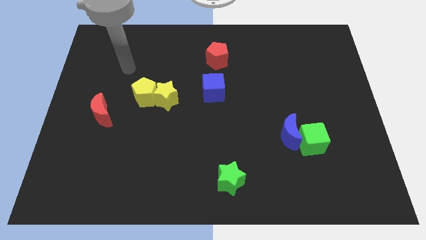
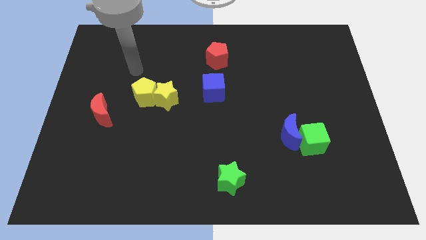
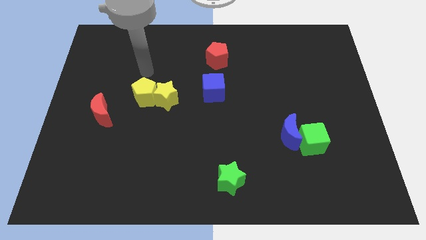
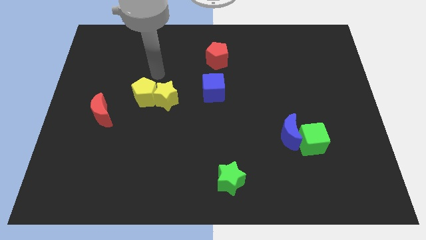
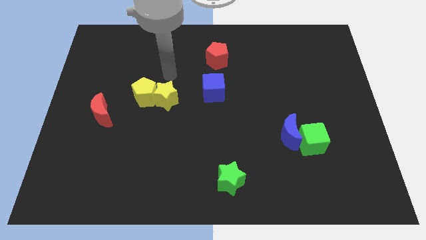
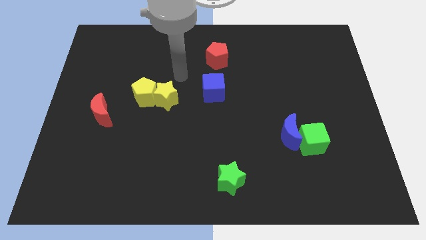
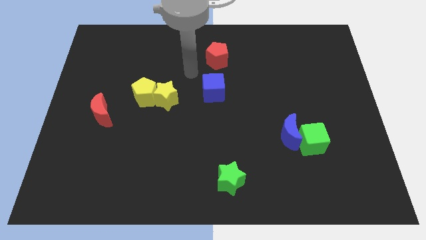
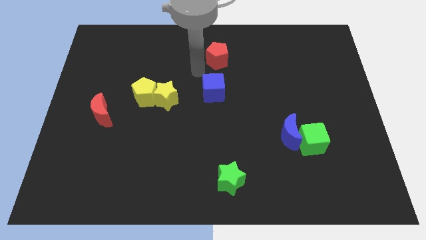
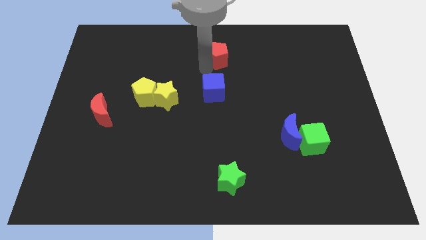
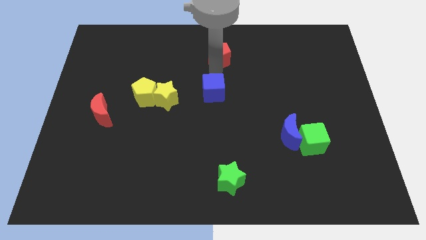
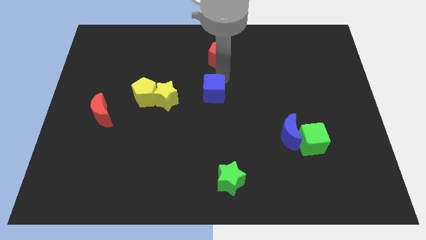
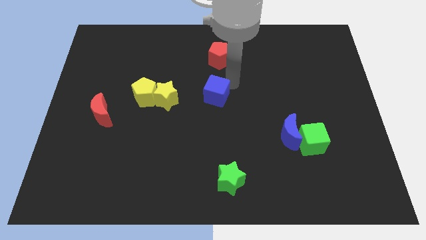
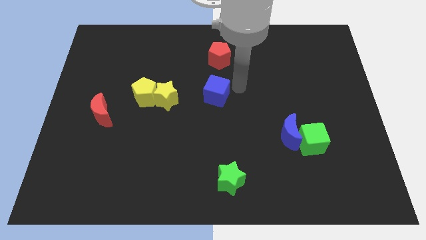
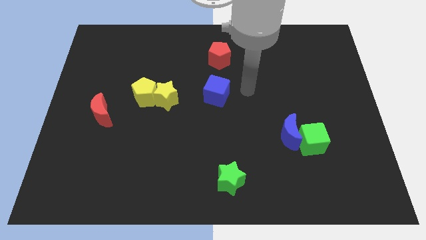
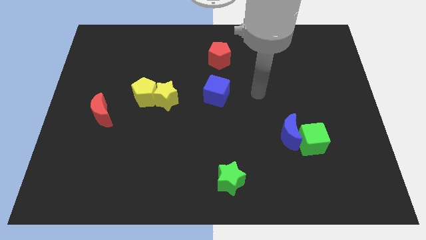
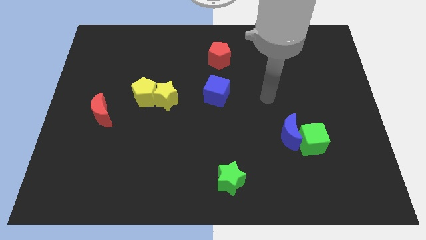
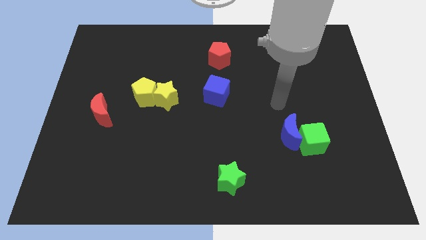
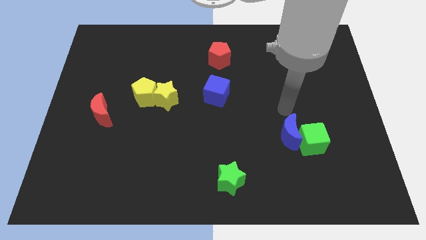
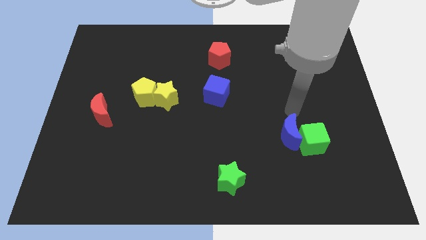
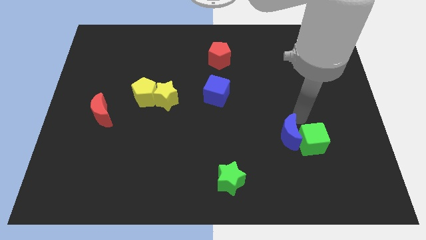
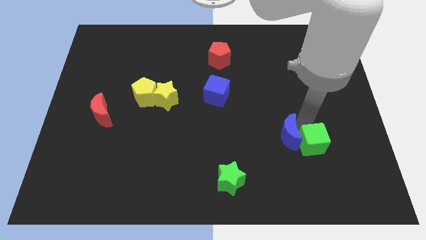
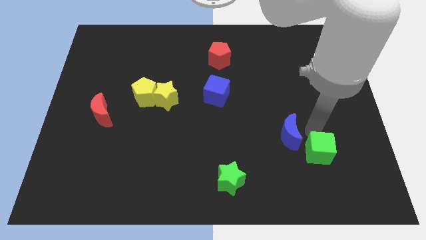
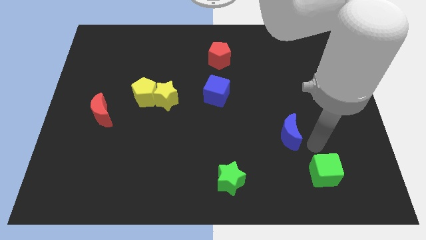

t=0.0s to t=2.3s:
separate the blue moon from the green cube

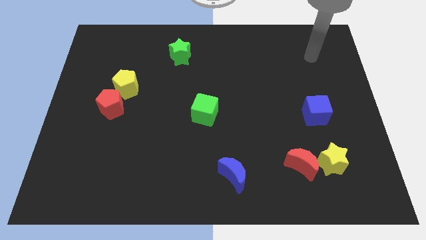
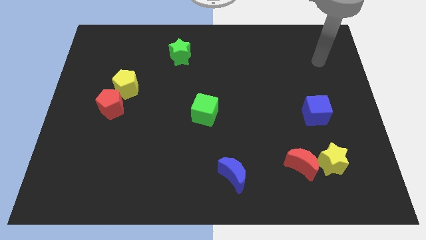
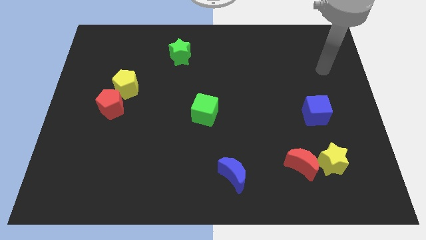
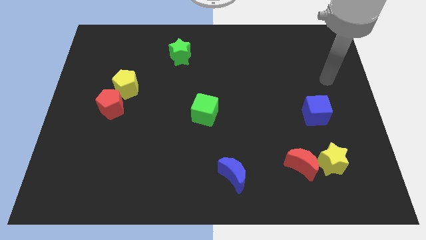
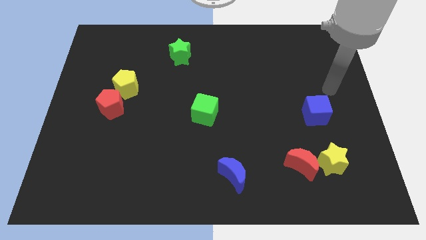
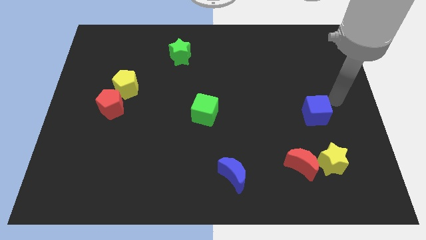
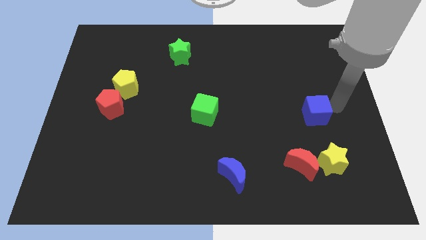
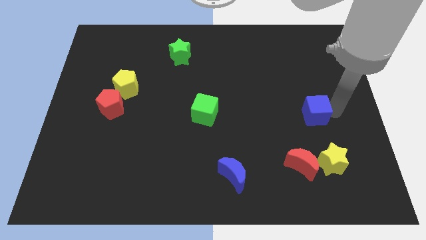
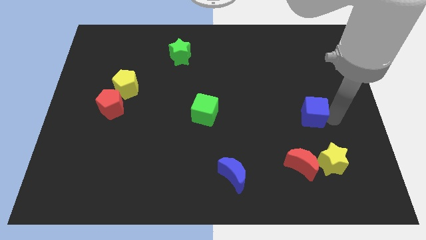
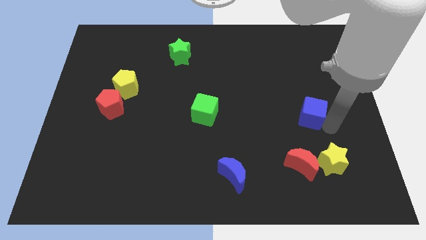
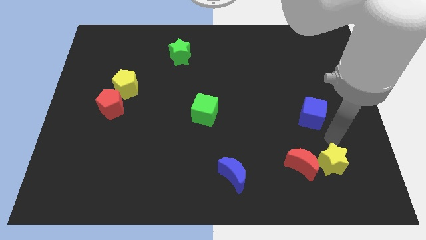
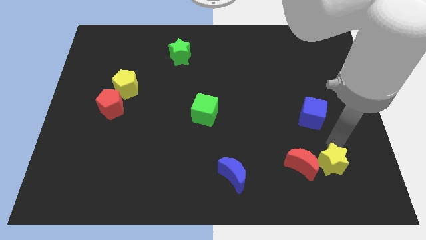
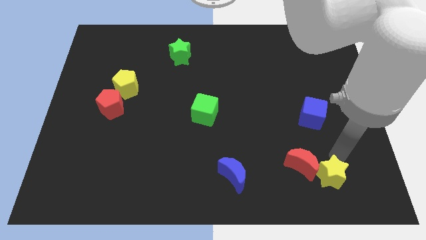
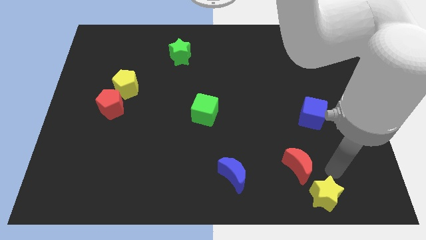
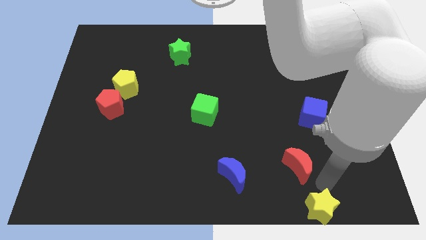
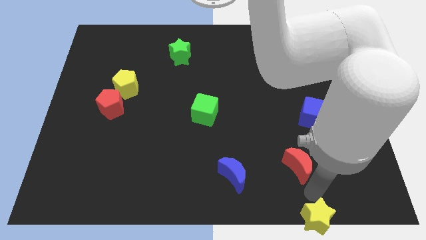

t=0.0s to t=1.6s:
move the red moon away from the yellow star

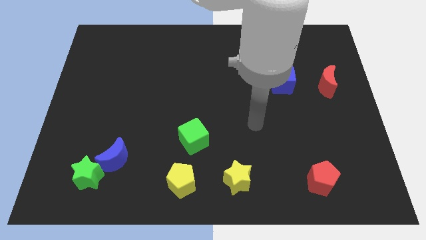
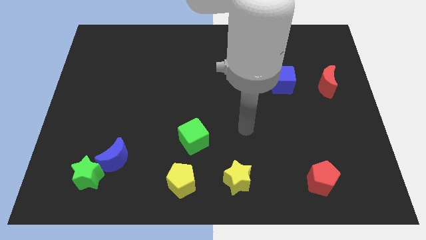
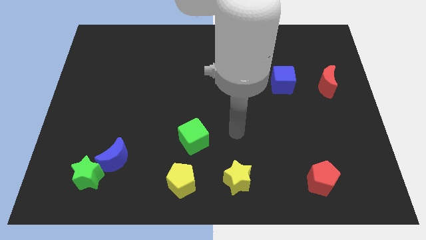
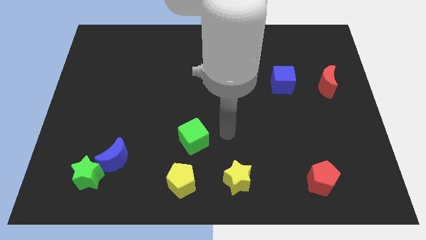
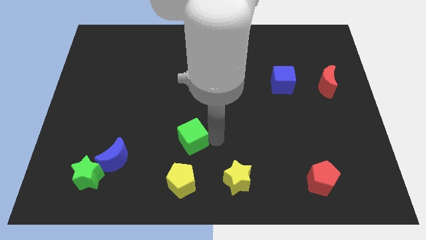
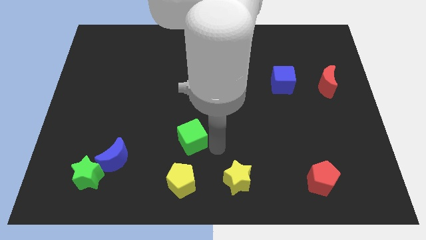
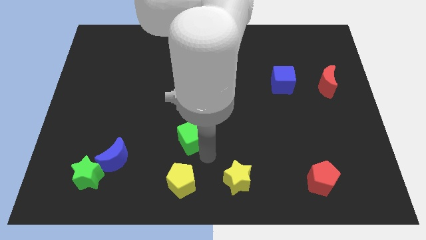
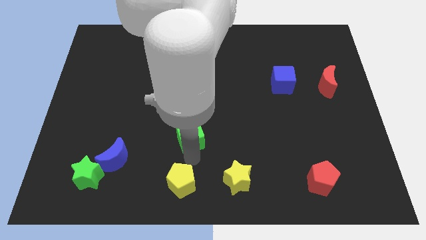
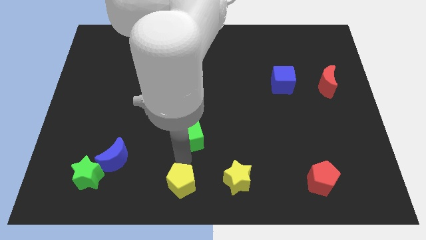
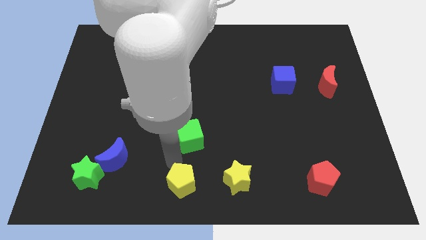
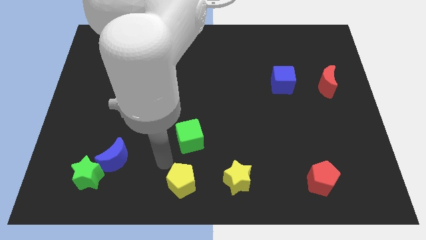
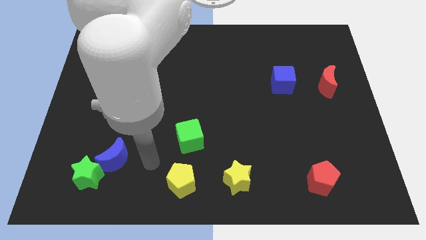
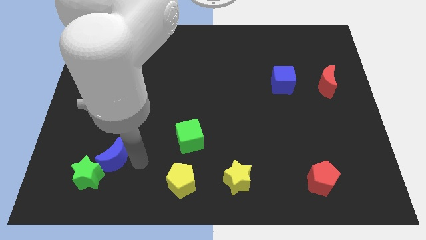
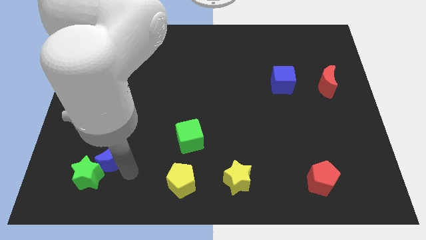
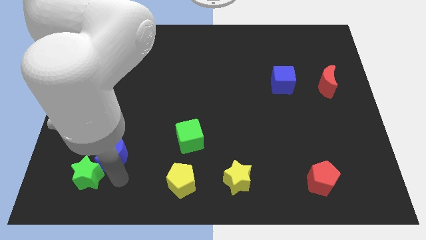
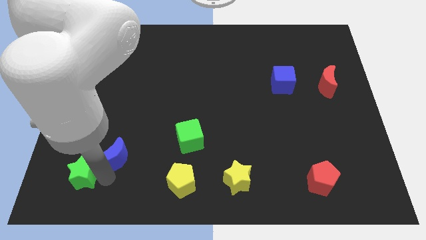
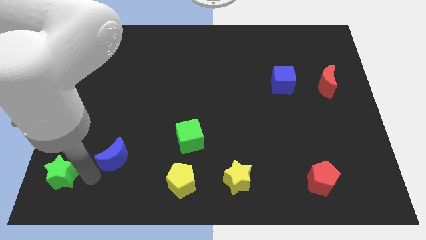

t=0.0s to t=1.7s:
move the blue moon away from the green star

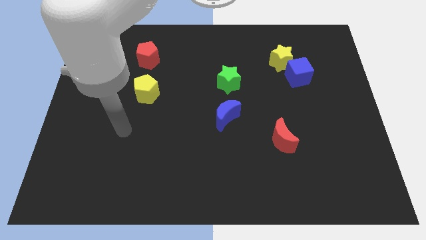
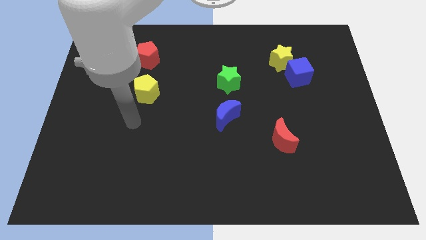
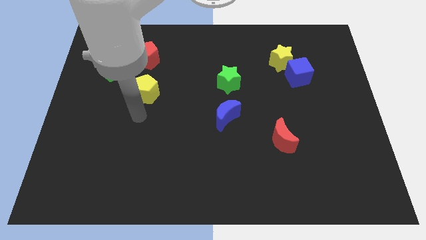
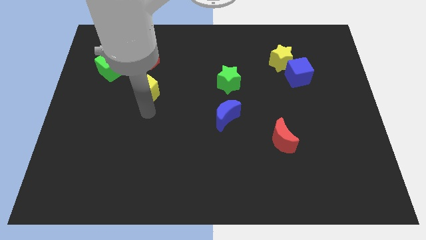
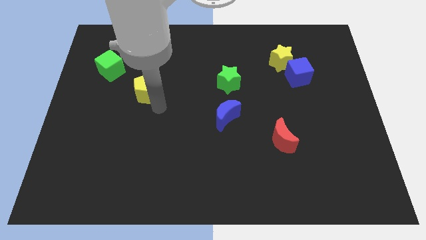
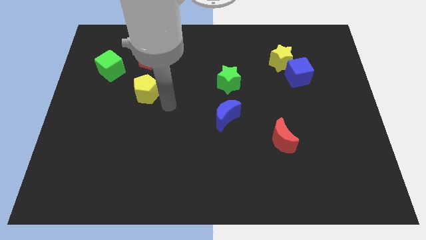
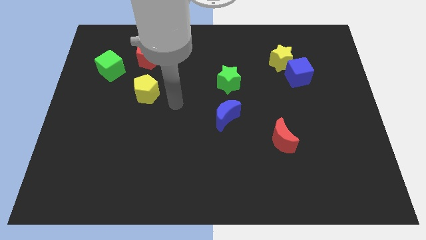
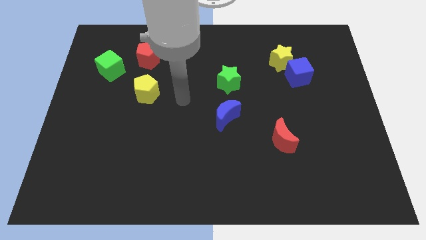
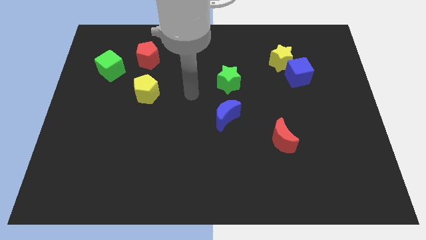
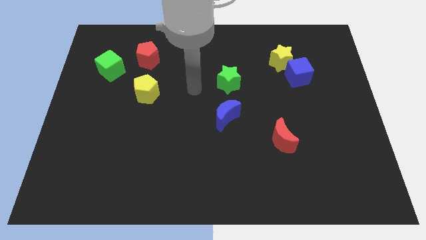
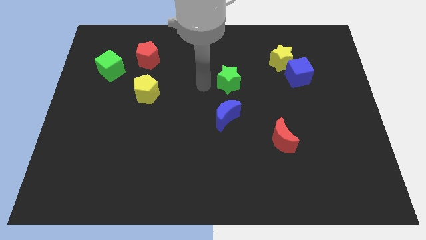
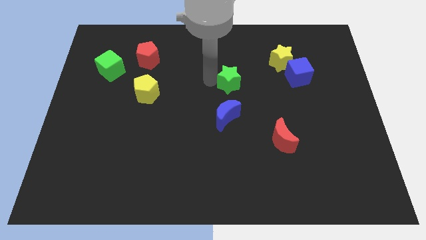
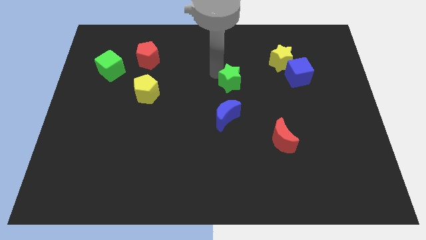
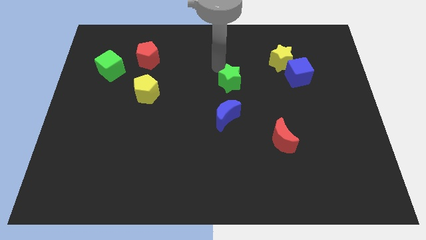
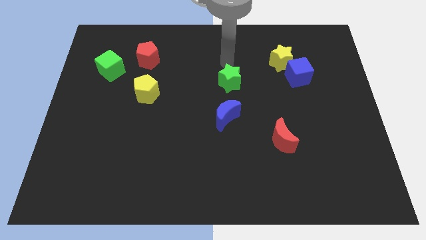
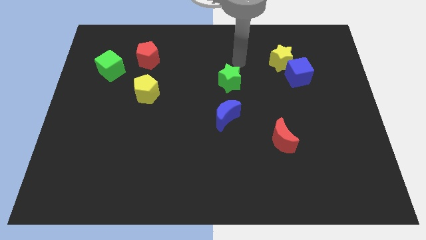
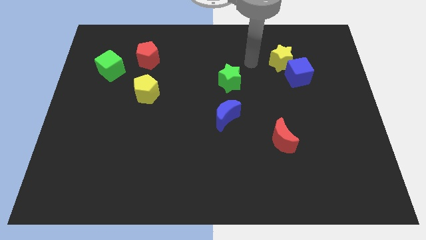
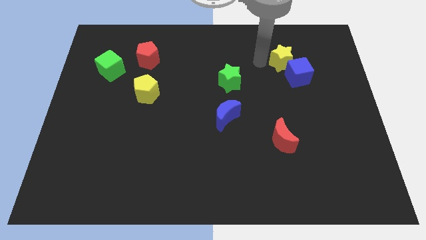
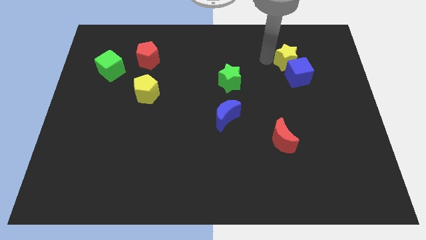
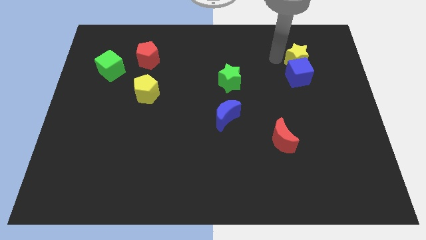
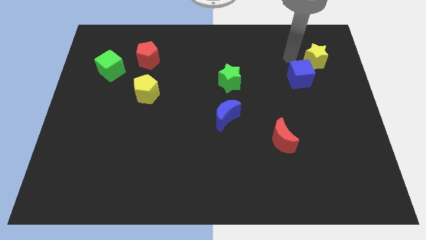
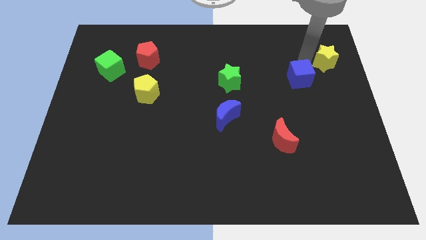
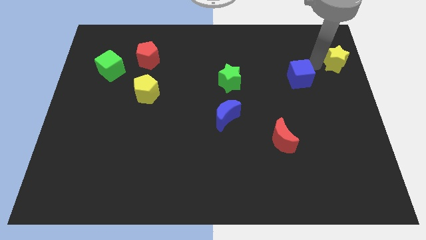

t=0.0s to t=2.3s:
move the blue cube away from the yellow star

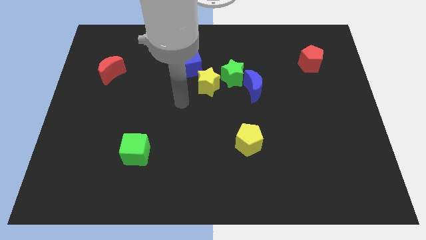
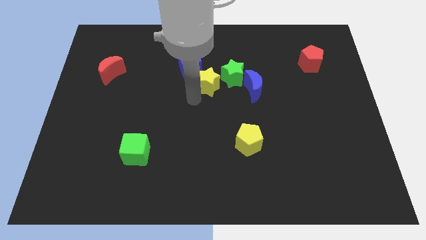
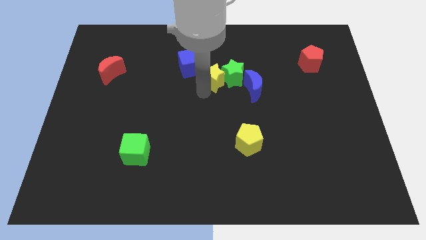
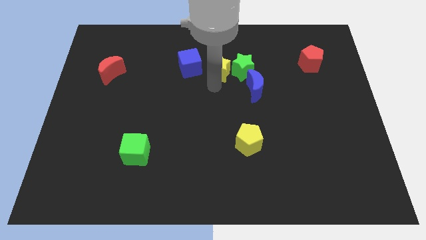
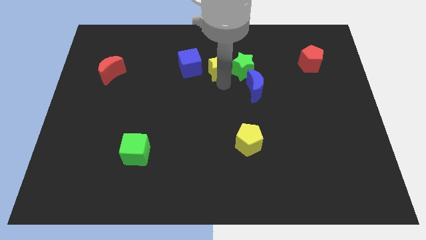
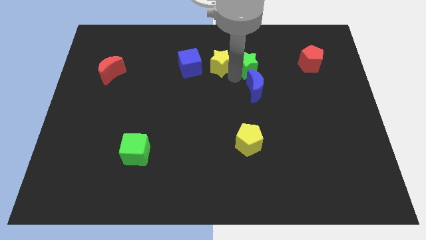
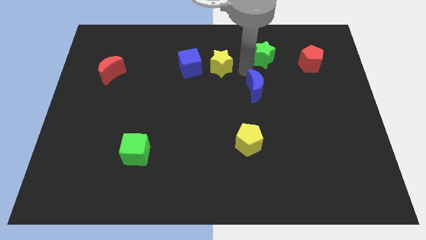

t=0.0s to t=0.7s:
separate the blue moon from the green star

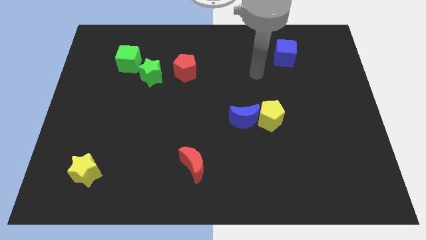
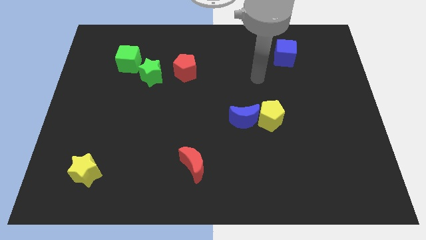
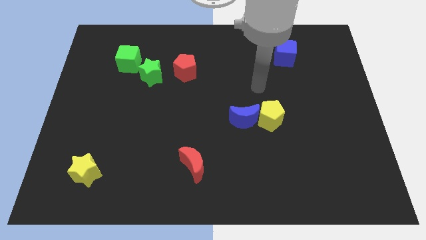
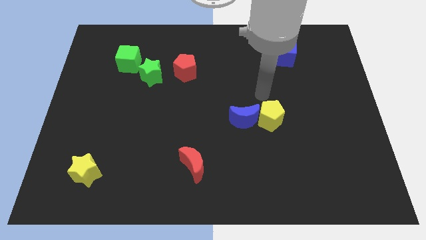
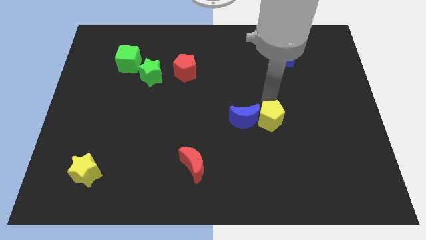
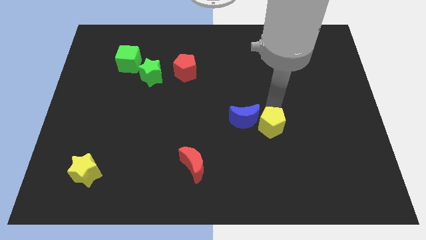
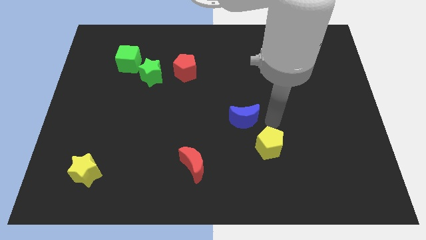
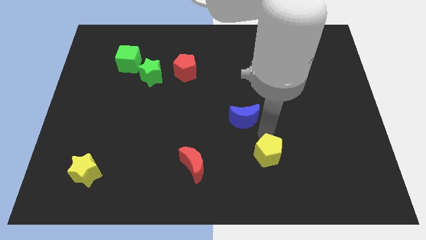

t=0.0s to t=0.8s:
move the blue moon away from the yellow pentagon
